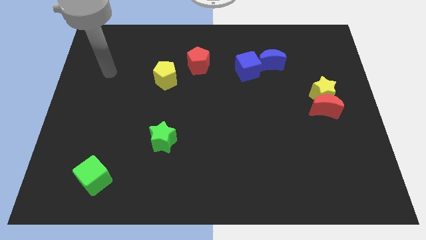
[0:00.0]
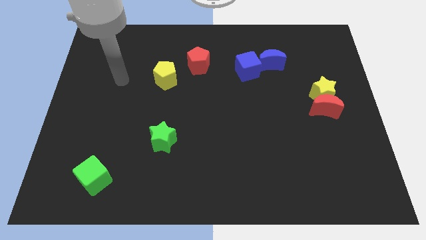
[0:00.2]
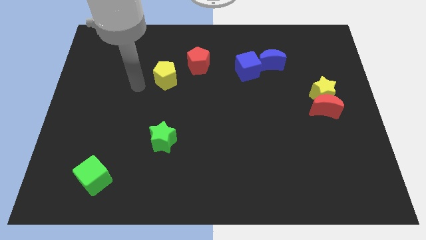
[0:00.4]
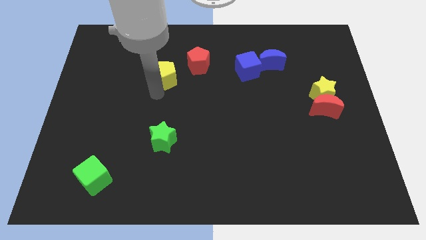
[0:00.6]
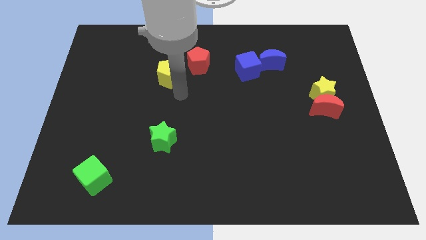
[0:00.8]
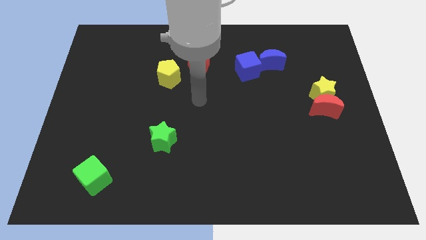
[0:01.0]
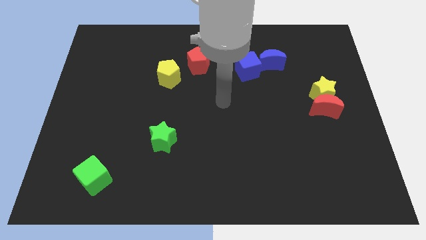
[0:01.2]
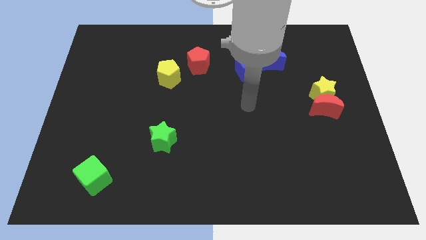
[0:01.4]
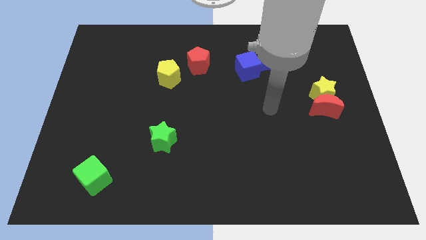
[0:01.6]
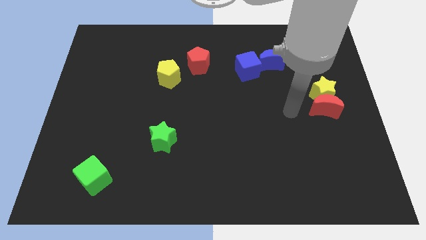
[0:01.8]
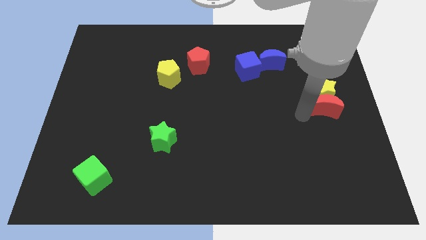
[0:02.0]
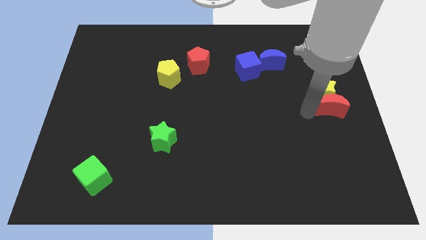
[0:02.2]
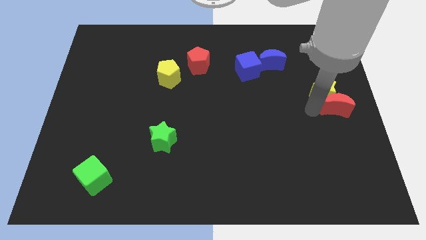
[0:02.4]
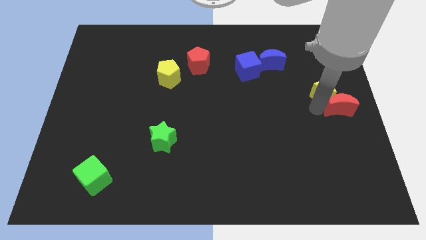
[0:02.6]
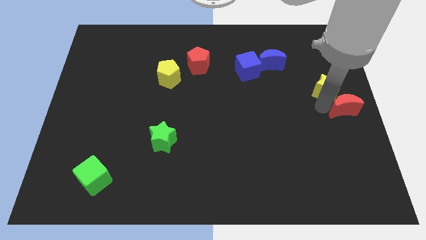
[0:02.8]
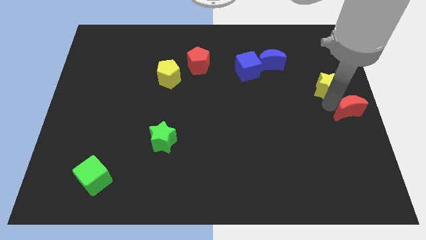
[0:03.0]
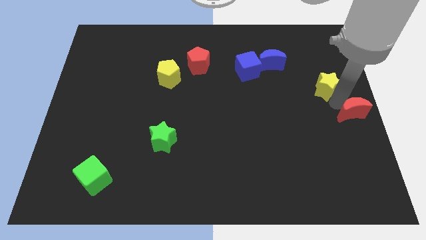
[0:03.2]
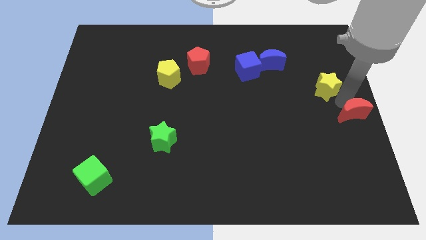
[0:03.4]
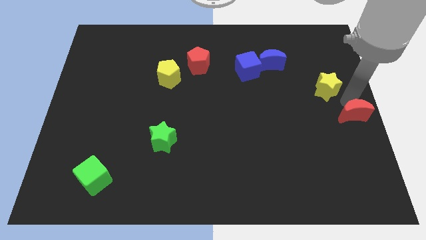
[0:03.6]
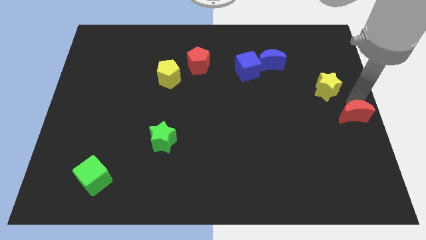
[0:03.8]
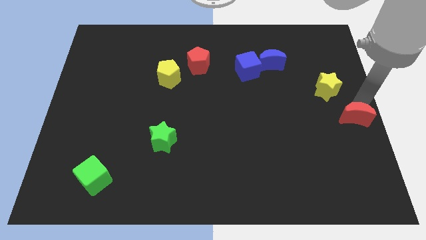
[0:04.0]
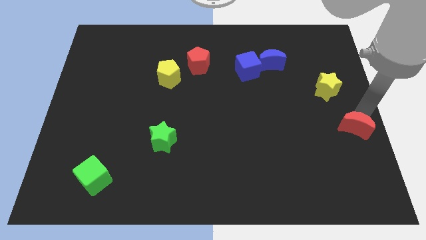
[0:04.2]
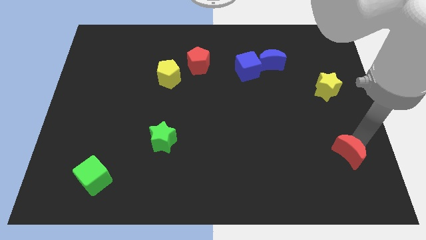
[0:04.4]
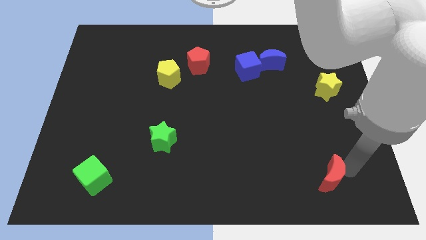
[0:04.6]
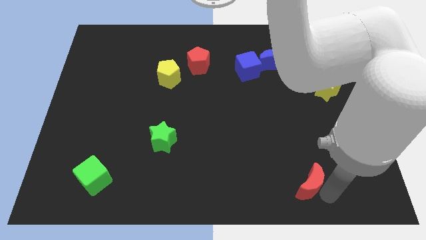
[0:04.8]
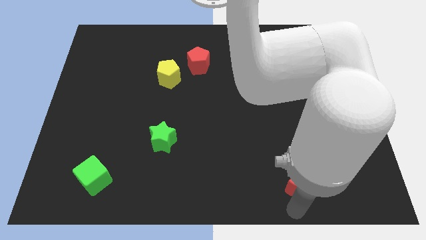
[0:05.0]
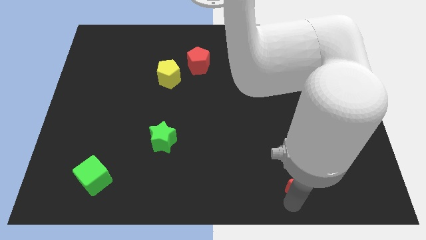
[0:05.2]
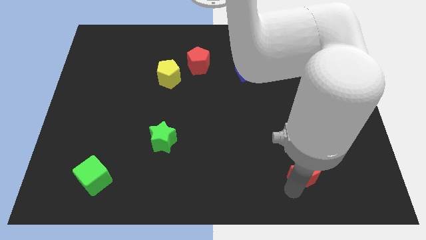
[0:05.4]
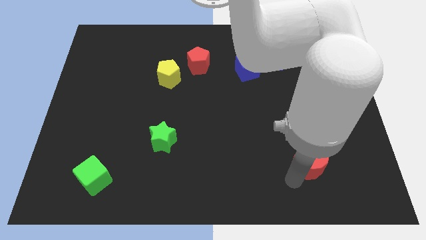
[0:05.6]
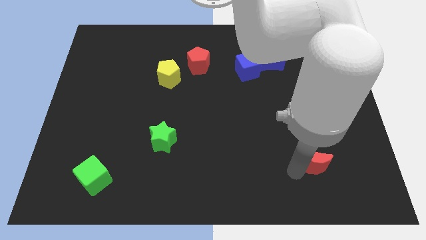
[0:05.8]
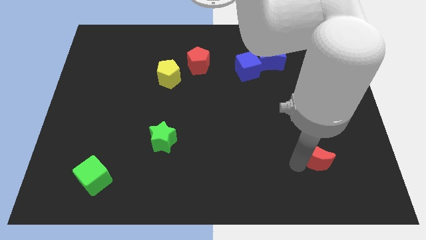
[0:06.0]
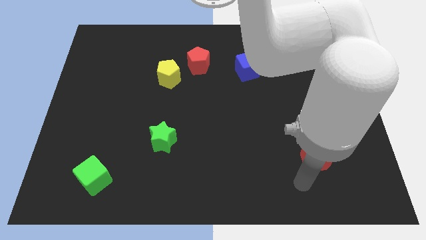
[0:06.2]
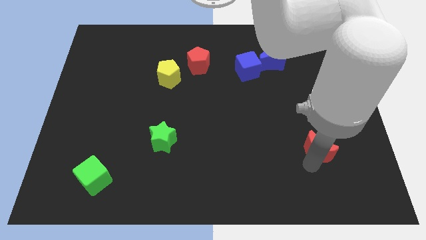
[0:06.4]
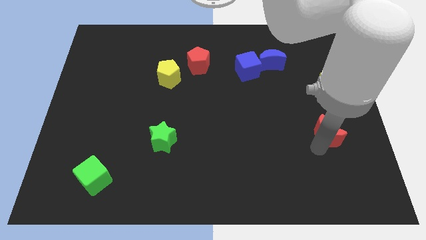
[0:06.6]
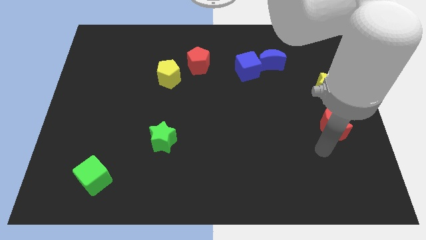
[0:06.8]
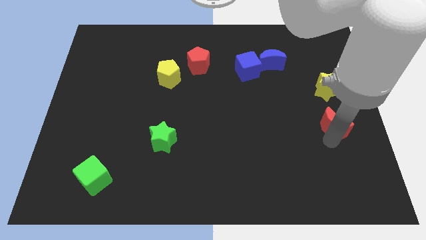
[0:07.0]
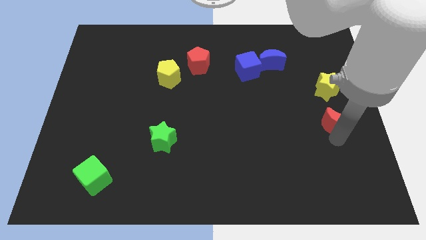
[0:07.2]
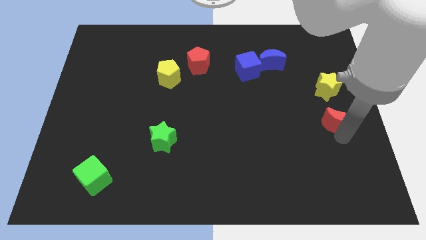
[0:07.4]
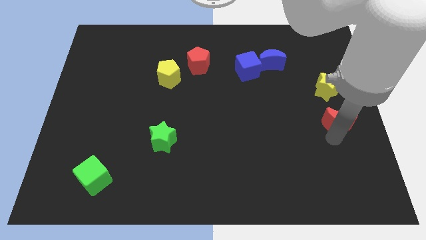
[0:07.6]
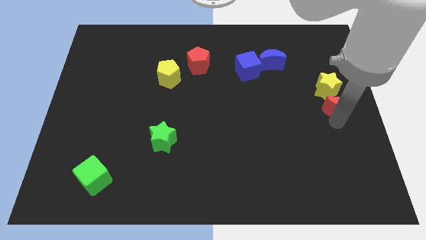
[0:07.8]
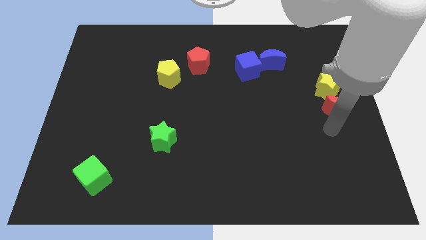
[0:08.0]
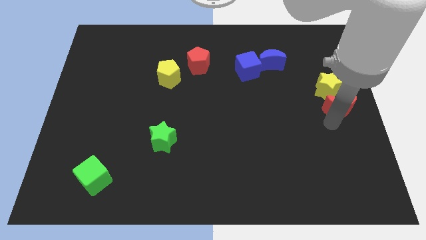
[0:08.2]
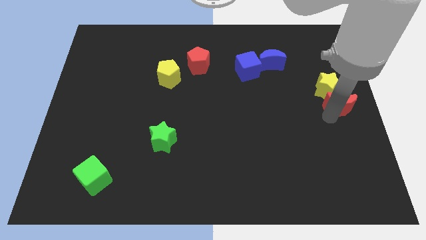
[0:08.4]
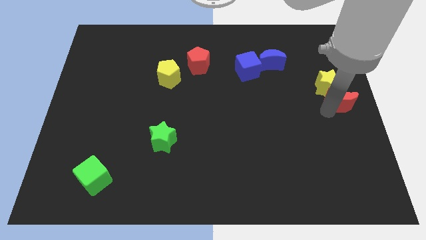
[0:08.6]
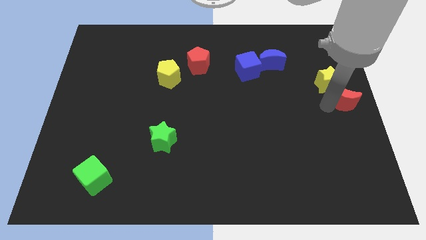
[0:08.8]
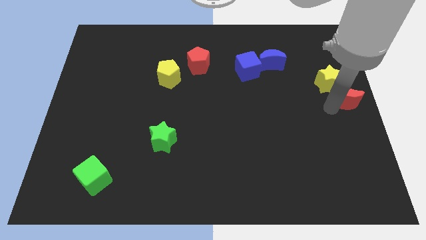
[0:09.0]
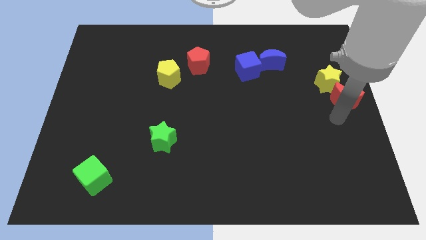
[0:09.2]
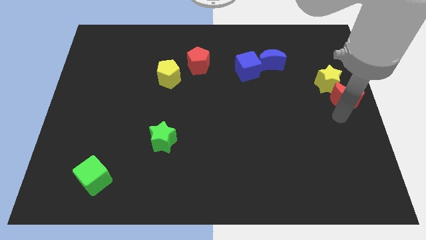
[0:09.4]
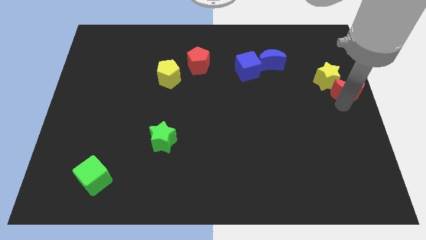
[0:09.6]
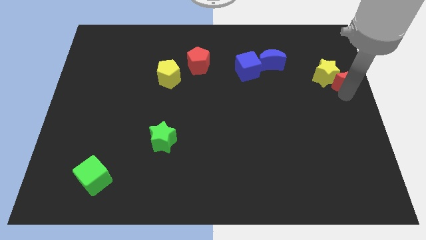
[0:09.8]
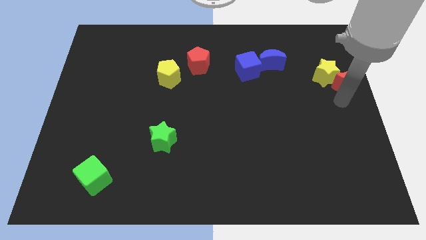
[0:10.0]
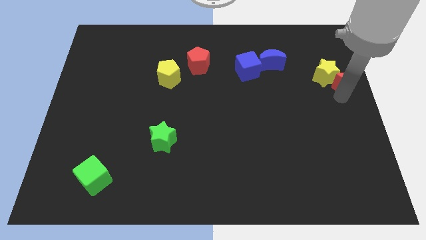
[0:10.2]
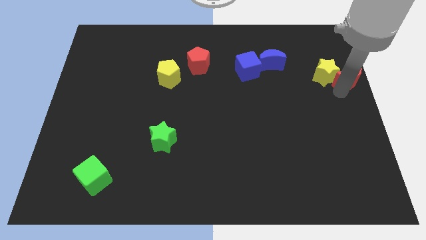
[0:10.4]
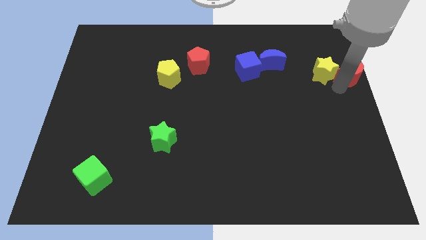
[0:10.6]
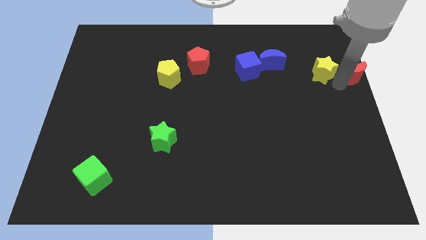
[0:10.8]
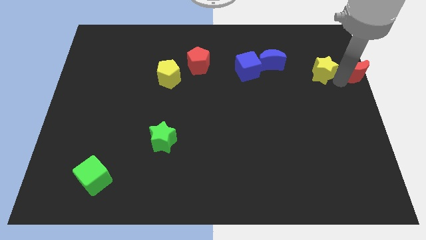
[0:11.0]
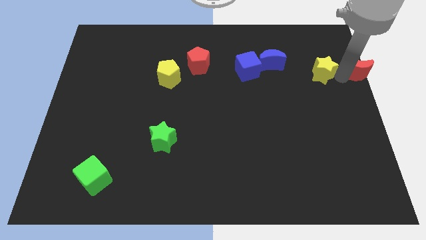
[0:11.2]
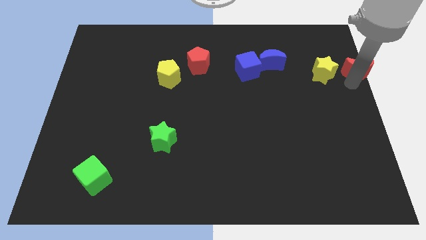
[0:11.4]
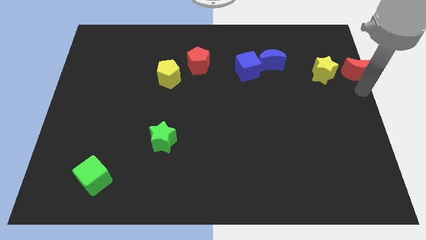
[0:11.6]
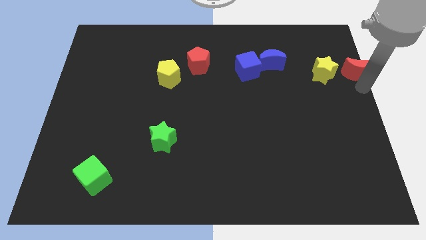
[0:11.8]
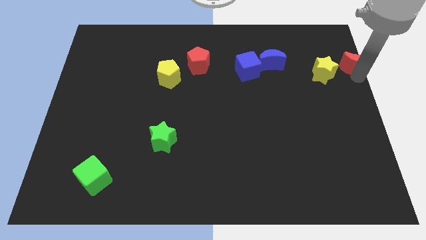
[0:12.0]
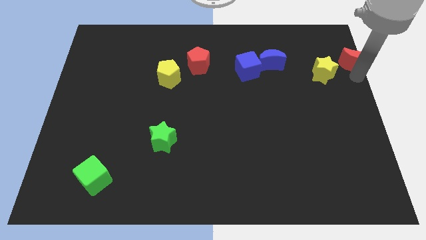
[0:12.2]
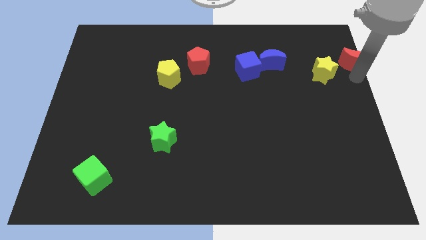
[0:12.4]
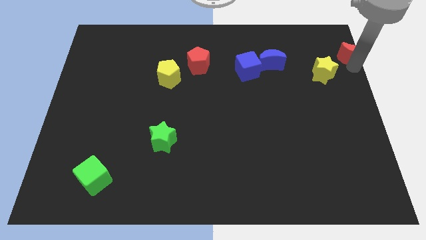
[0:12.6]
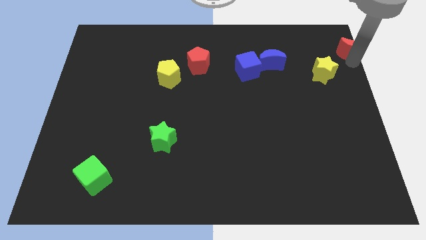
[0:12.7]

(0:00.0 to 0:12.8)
move the red moon to the top right
